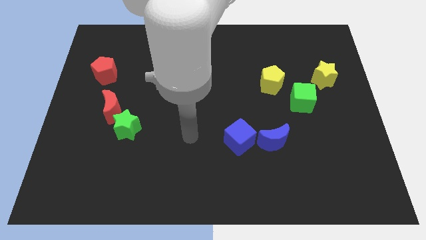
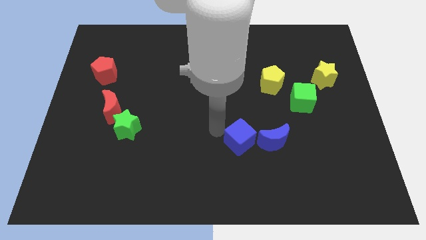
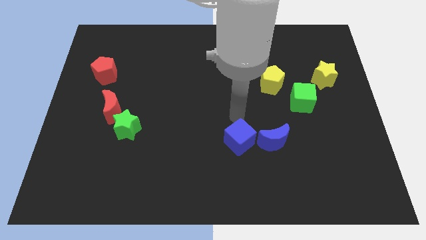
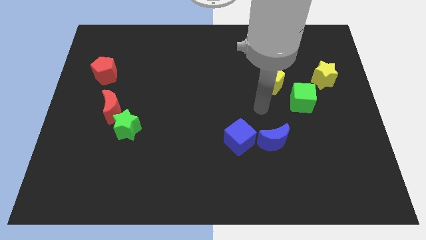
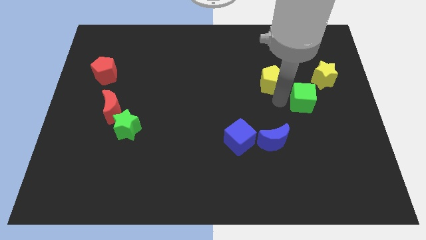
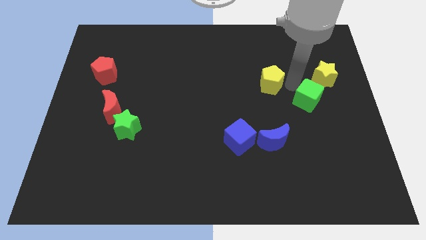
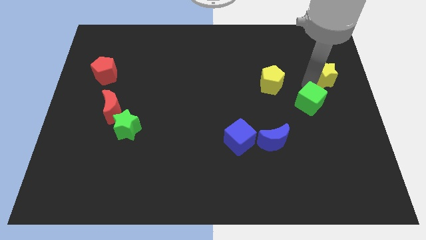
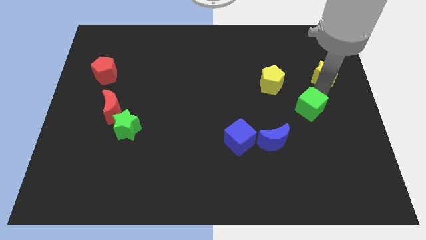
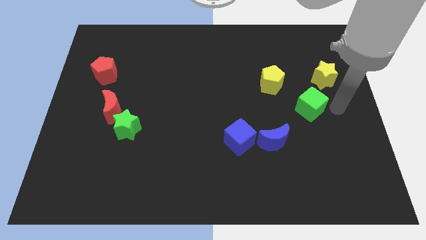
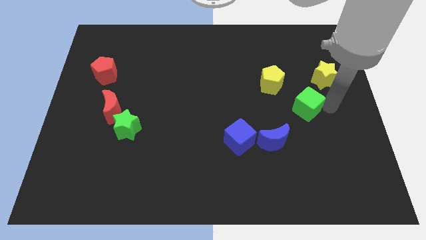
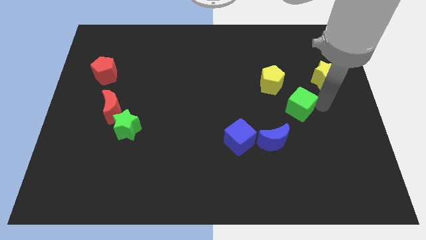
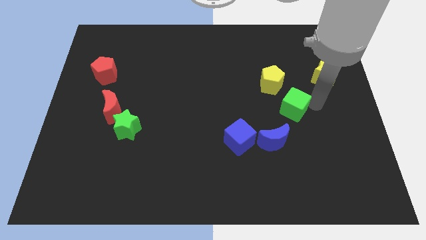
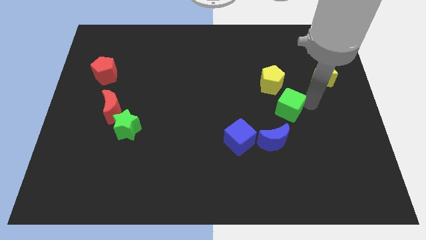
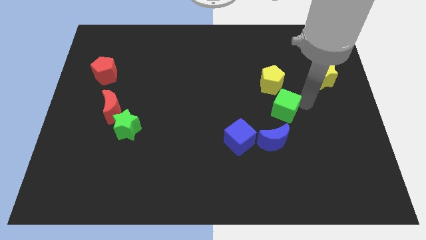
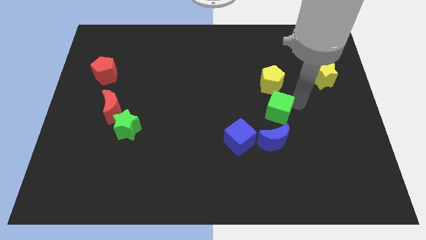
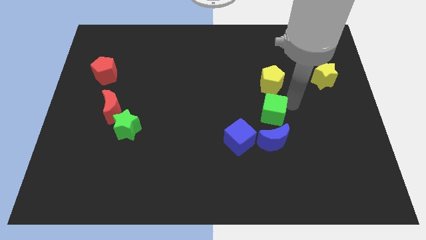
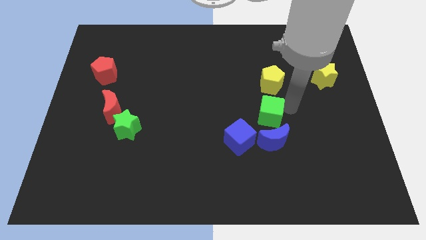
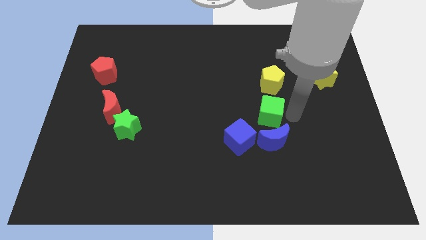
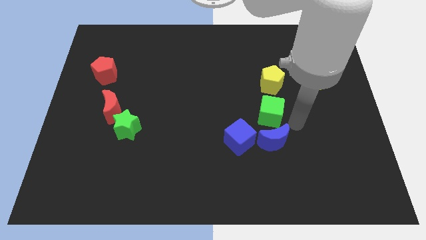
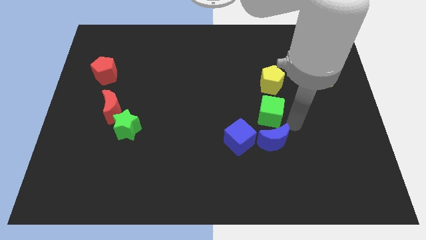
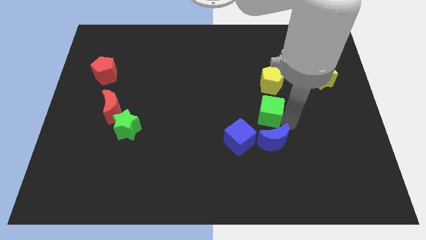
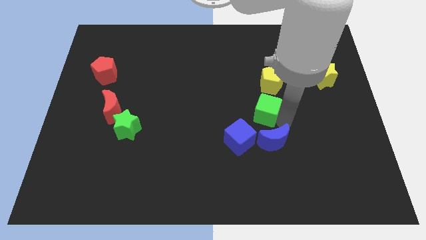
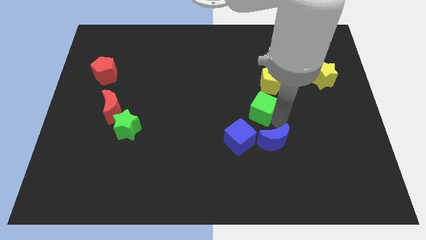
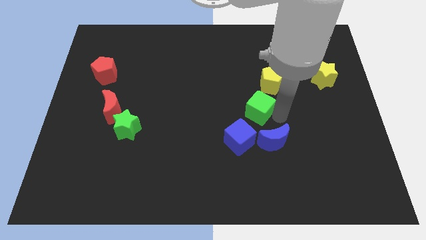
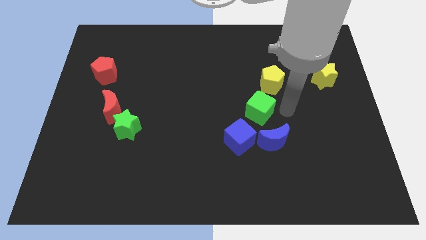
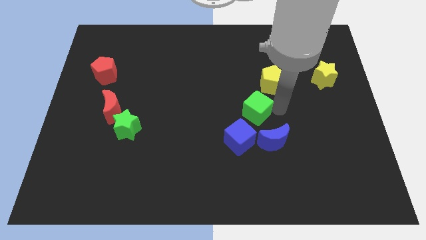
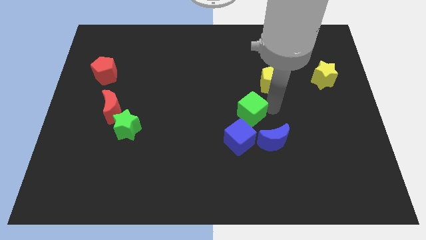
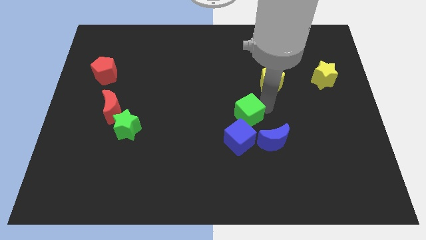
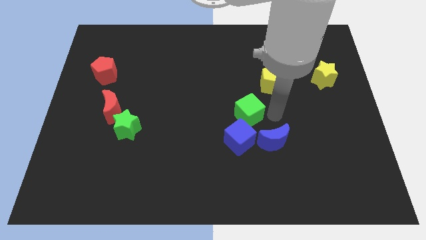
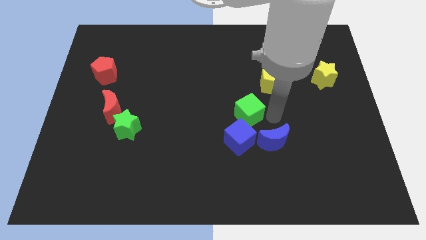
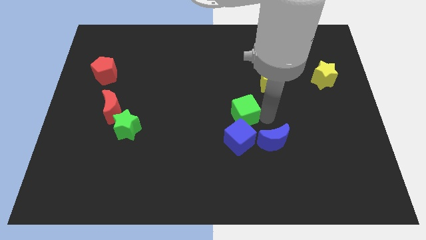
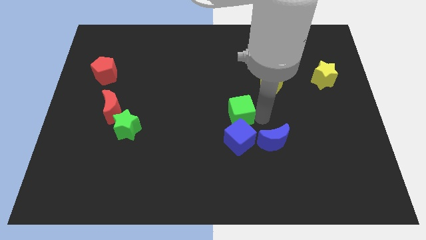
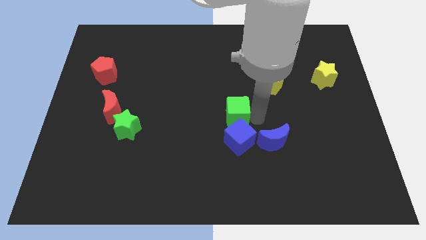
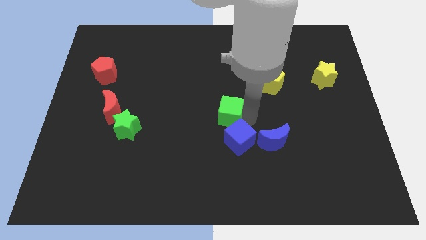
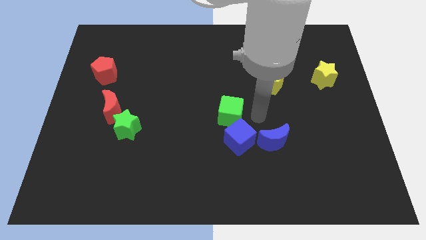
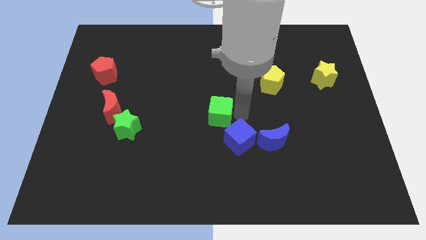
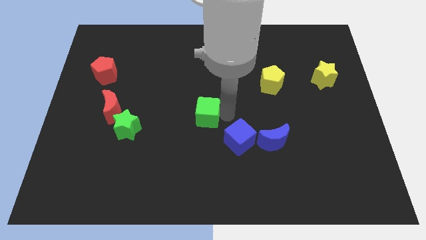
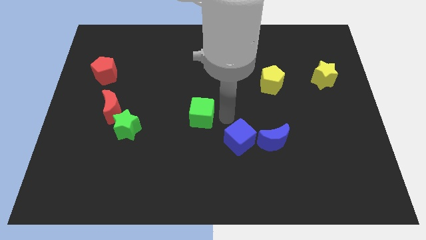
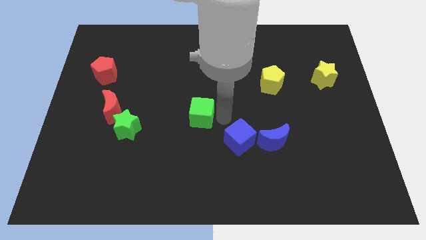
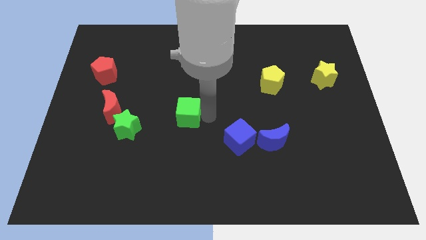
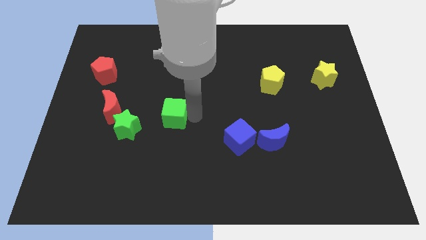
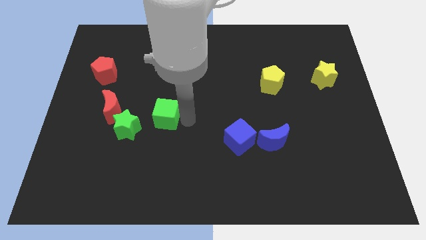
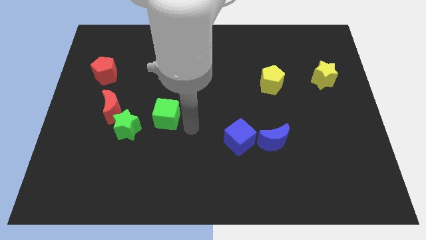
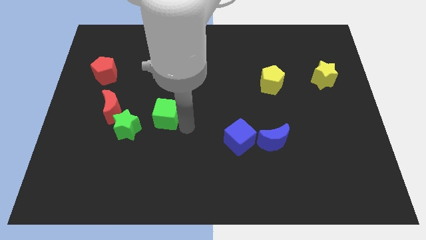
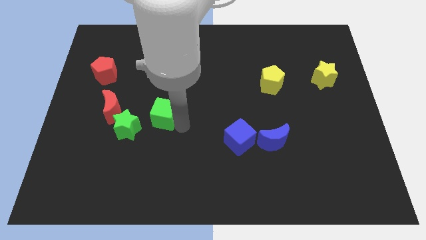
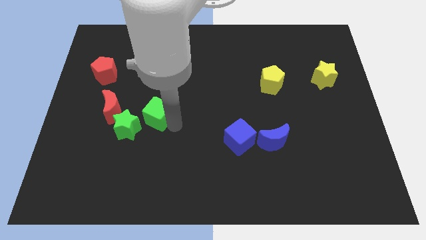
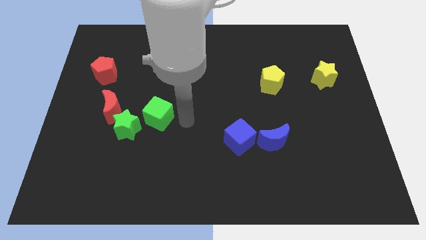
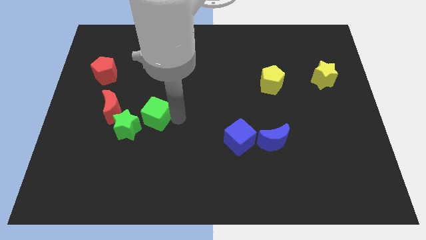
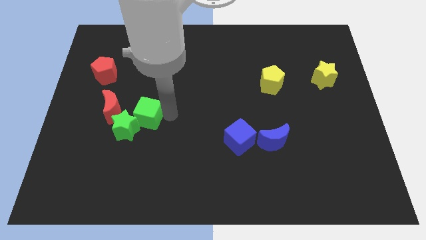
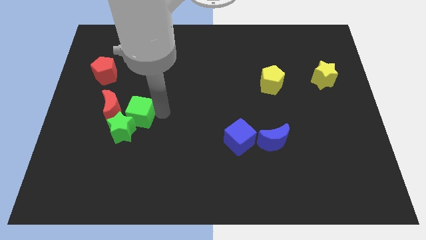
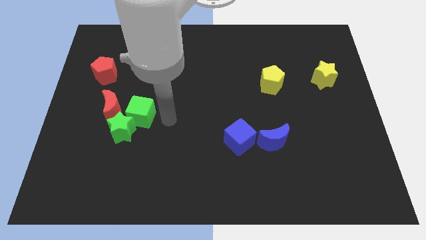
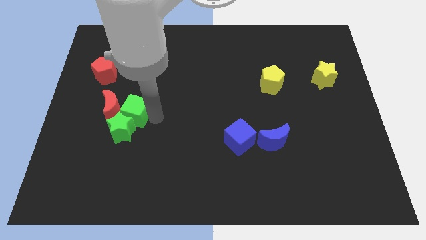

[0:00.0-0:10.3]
move the green cube close to the red moon

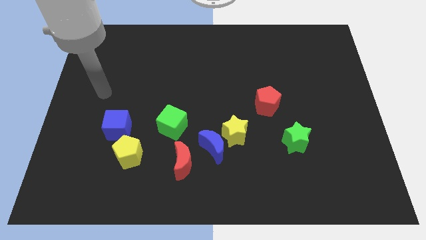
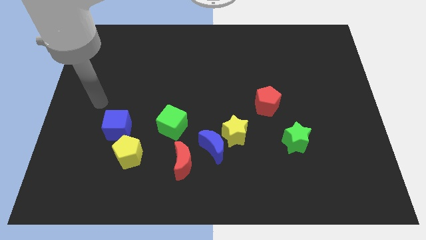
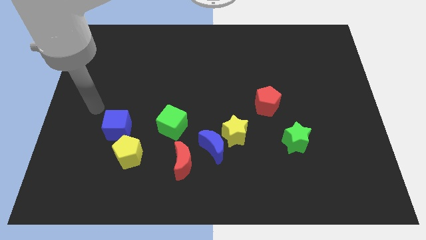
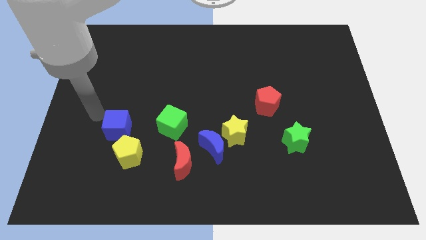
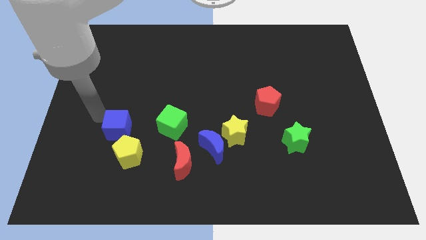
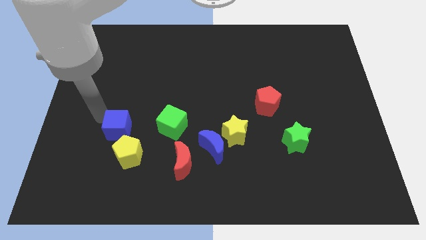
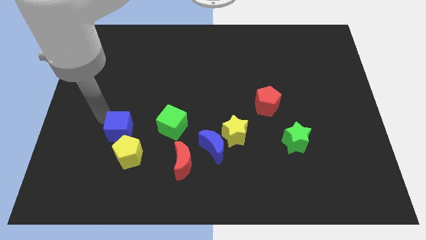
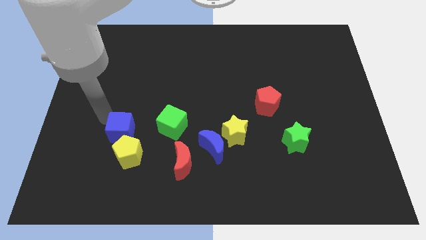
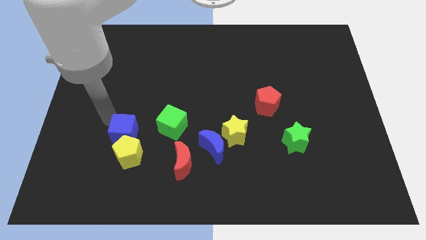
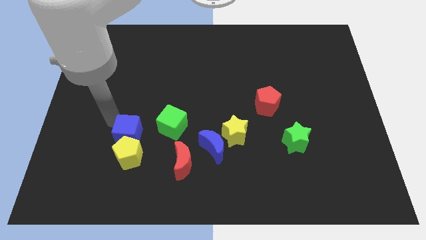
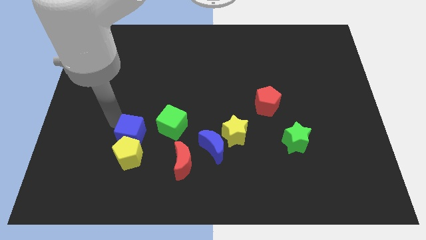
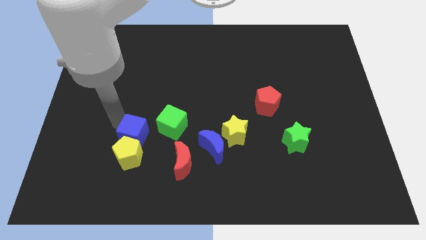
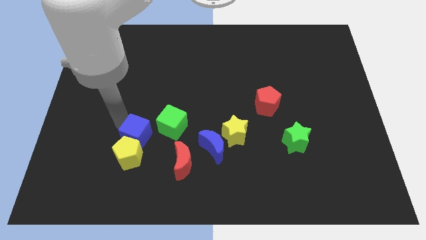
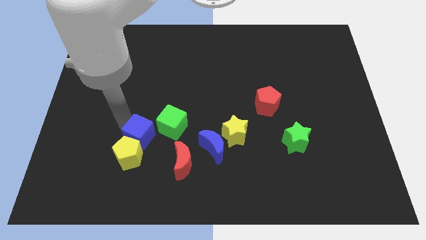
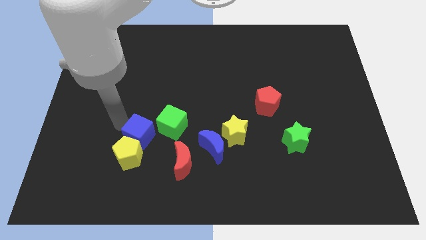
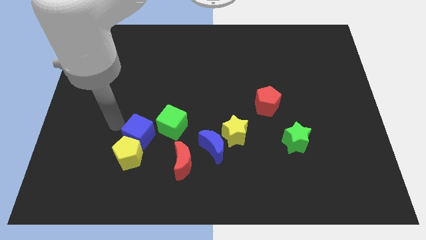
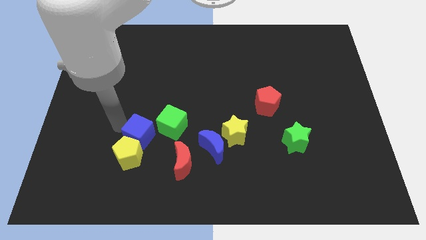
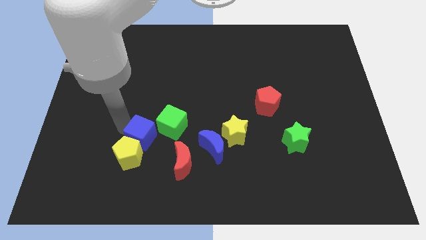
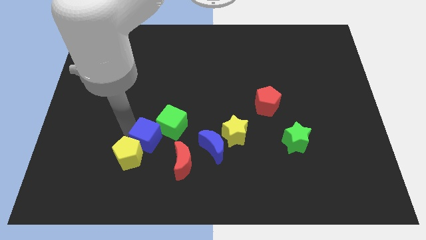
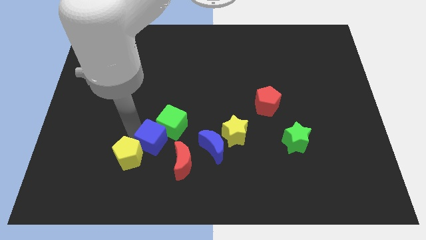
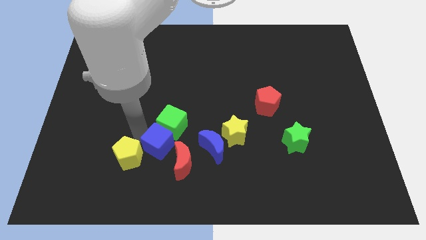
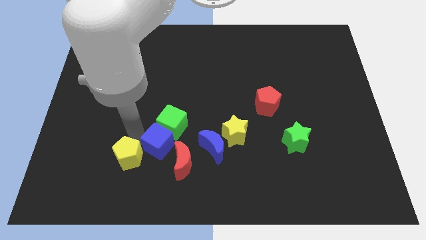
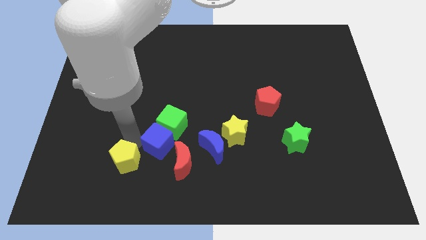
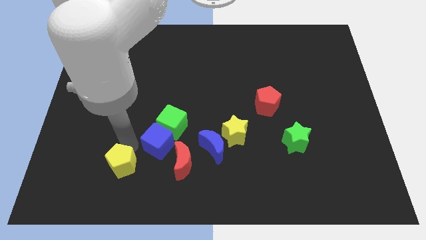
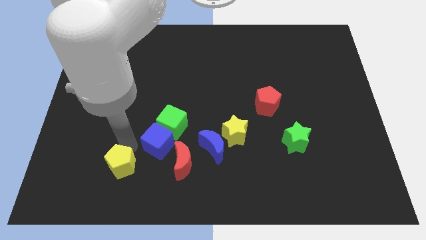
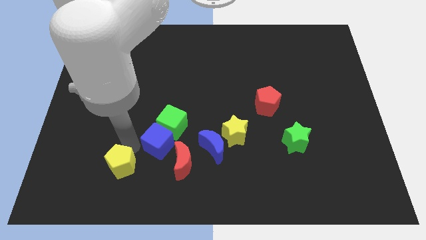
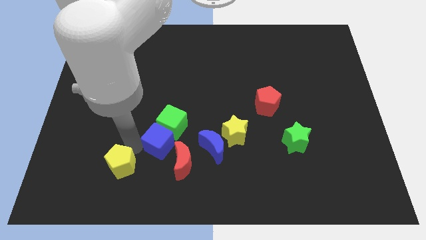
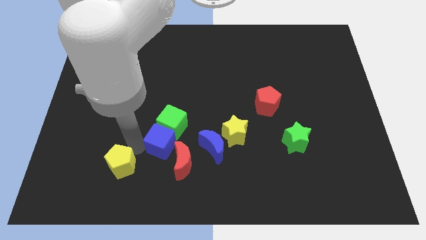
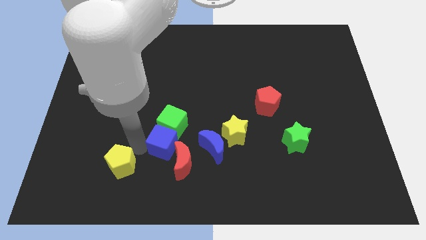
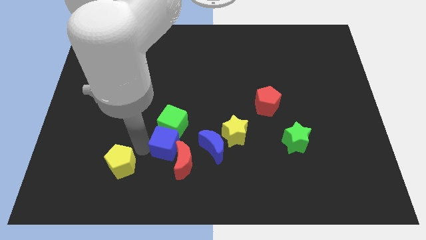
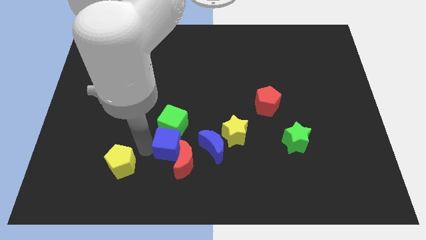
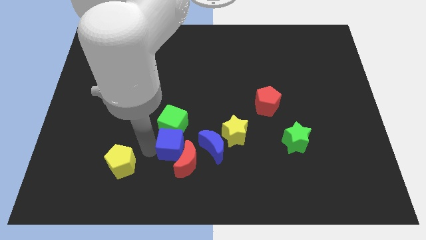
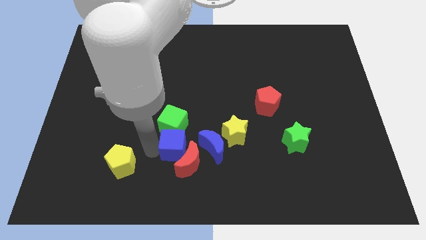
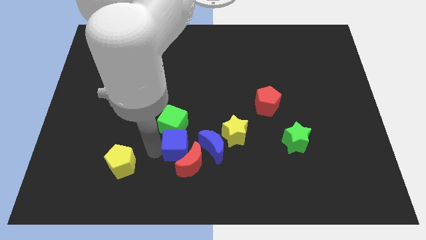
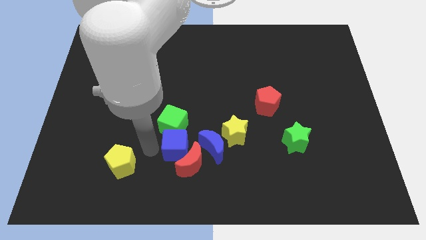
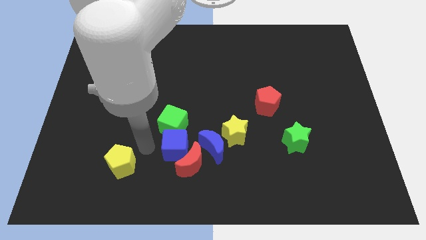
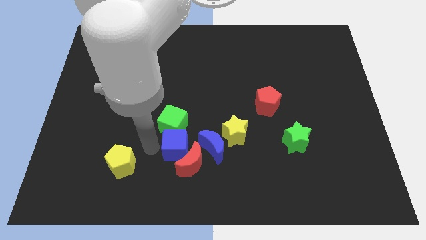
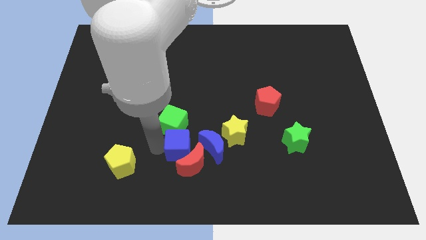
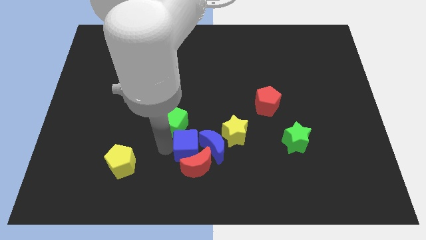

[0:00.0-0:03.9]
put the blue cube towards the blue moon
